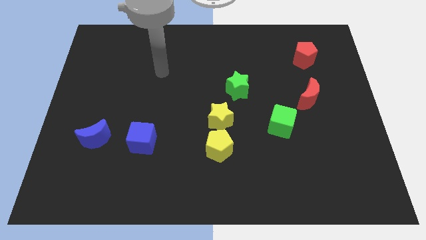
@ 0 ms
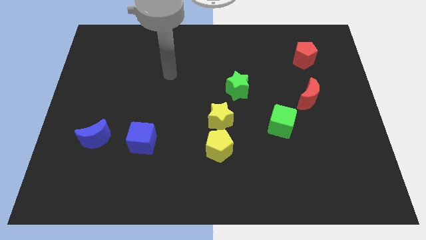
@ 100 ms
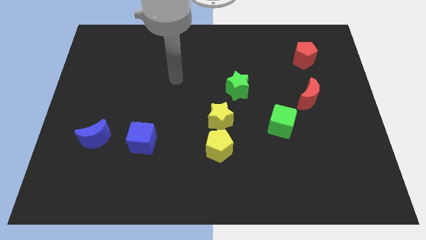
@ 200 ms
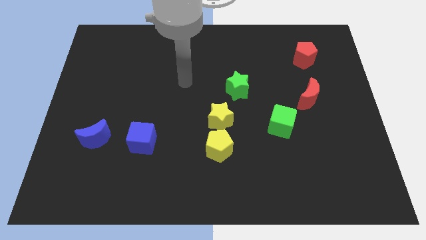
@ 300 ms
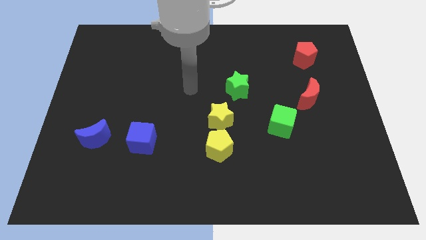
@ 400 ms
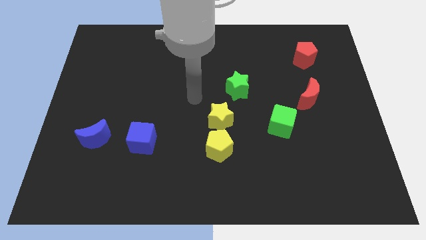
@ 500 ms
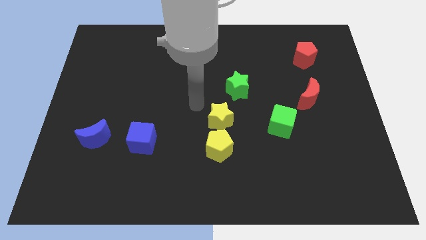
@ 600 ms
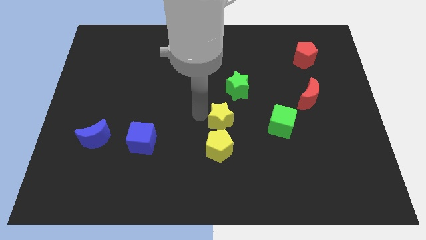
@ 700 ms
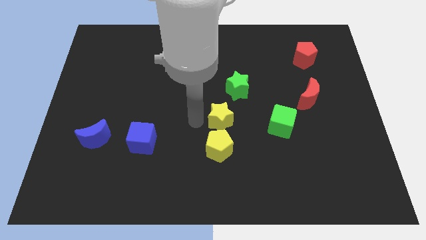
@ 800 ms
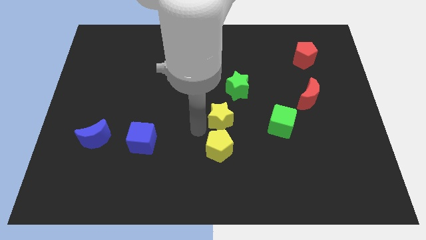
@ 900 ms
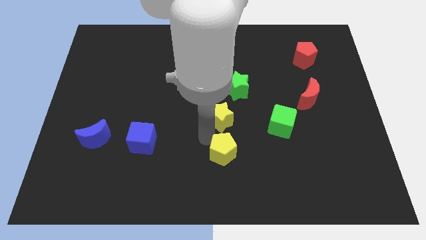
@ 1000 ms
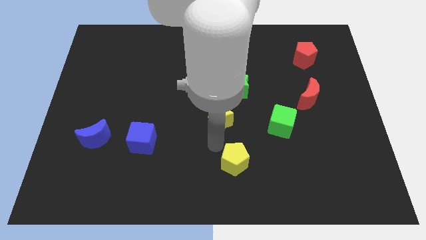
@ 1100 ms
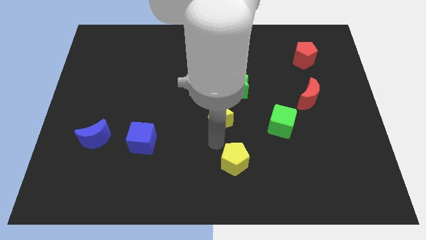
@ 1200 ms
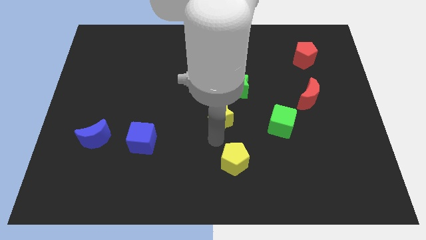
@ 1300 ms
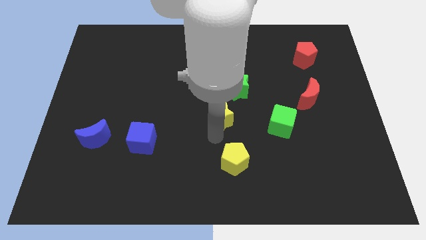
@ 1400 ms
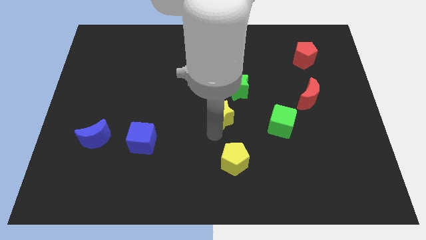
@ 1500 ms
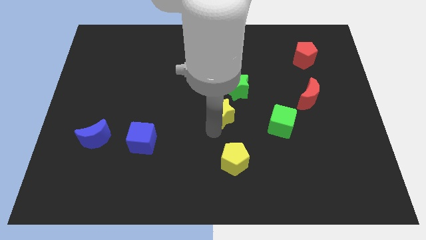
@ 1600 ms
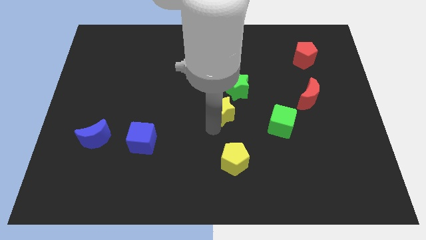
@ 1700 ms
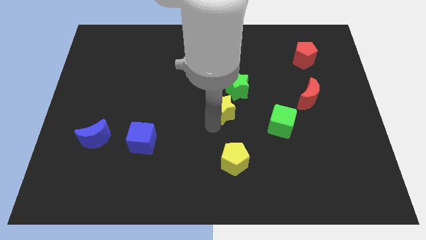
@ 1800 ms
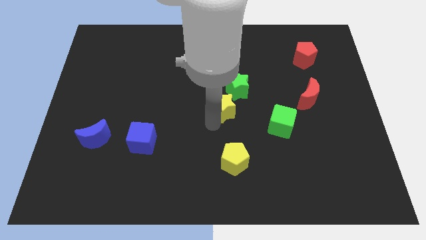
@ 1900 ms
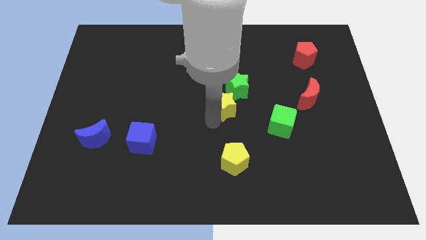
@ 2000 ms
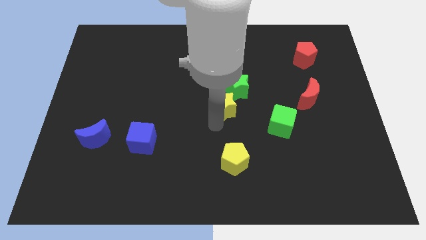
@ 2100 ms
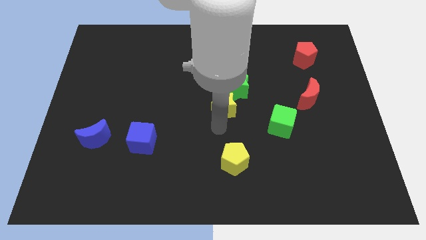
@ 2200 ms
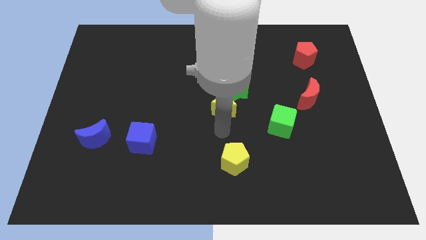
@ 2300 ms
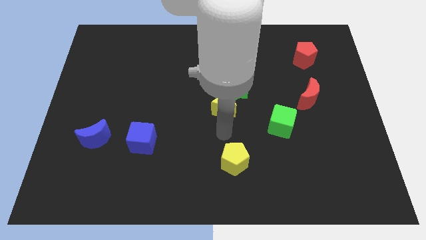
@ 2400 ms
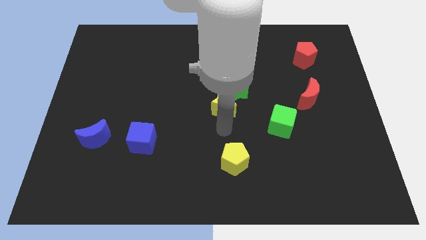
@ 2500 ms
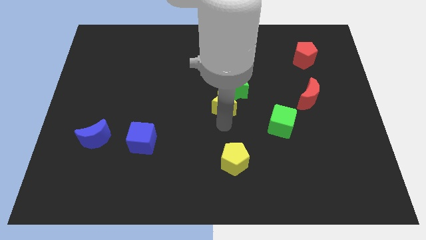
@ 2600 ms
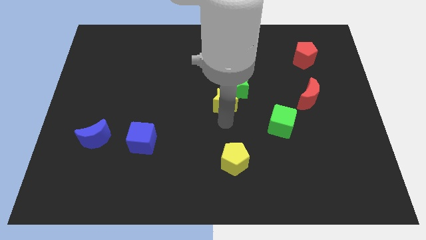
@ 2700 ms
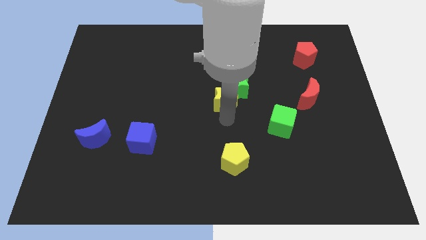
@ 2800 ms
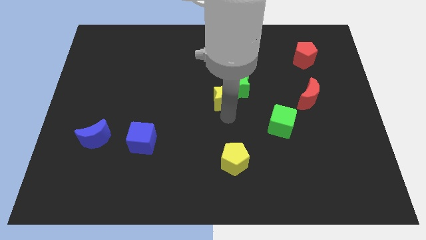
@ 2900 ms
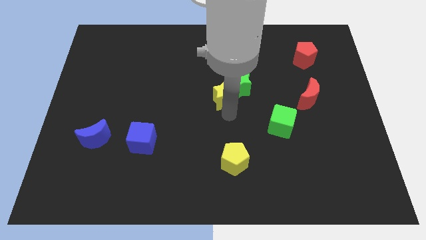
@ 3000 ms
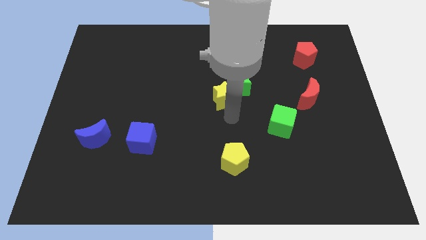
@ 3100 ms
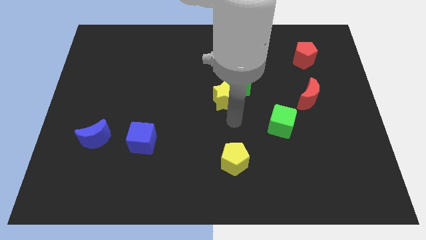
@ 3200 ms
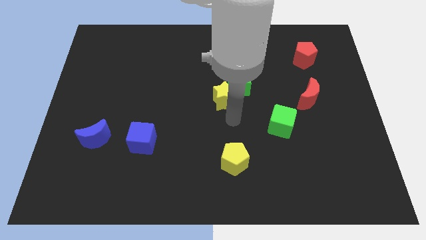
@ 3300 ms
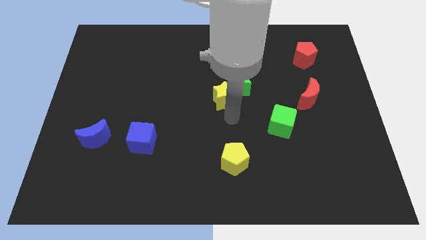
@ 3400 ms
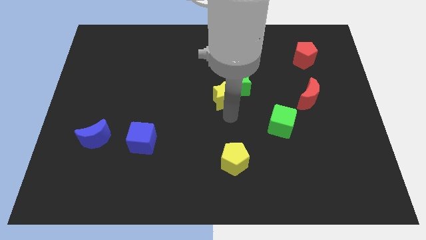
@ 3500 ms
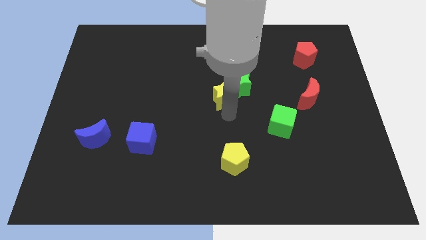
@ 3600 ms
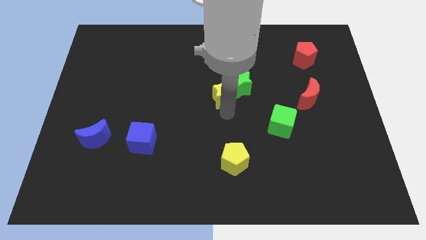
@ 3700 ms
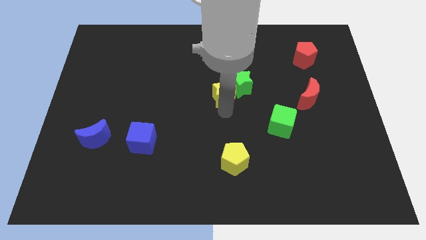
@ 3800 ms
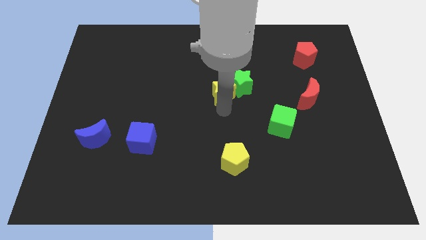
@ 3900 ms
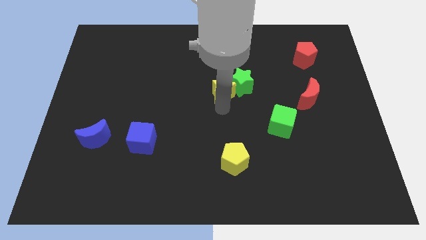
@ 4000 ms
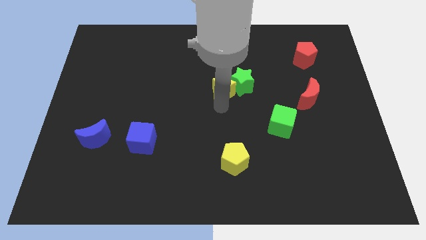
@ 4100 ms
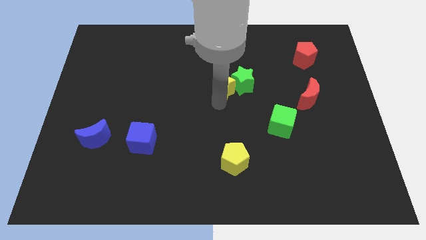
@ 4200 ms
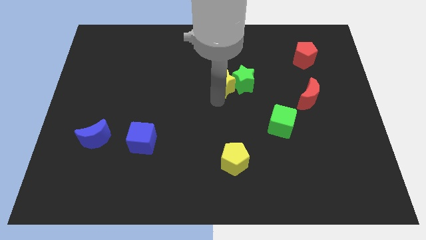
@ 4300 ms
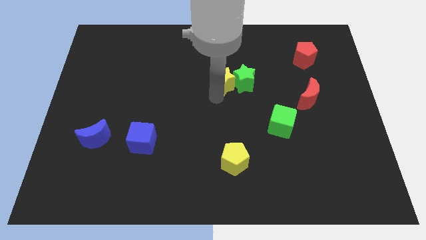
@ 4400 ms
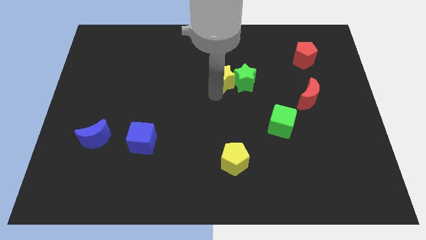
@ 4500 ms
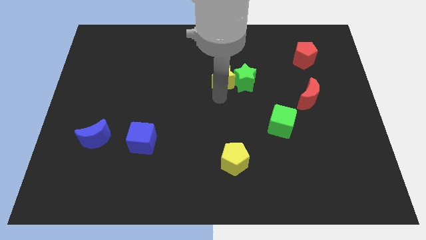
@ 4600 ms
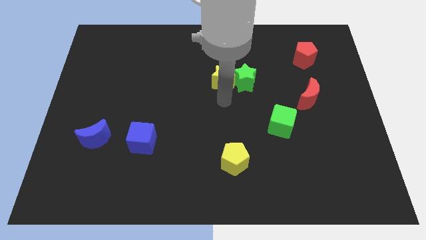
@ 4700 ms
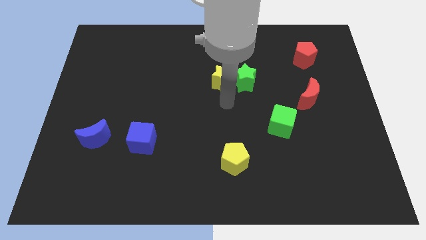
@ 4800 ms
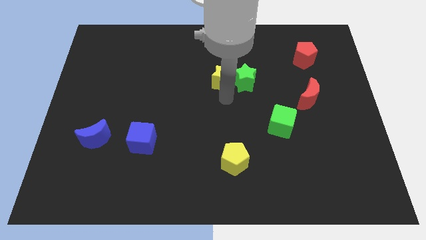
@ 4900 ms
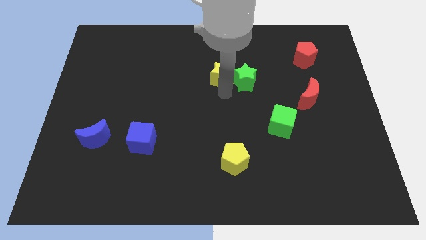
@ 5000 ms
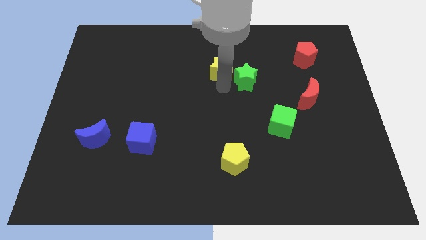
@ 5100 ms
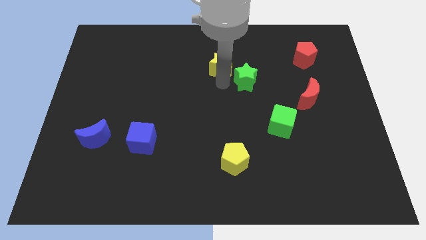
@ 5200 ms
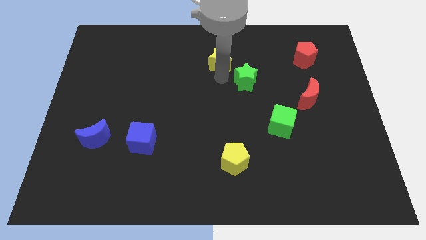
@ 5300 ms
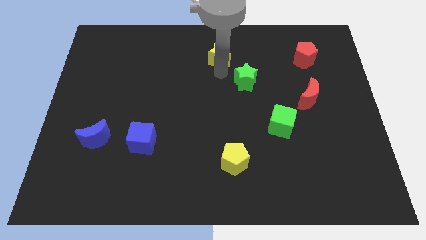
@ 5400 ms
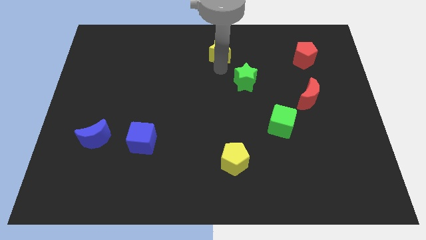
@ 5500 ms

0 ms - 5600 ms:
put the yellow star to the top side
